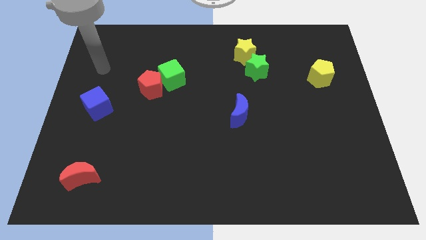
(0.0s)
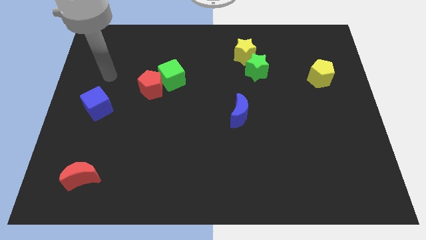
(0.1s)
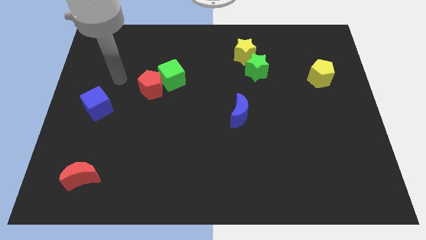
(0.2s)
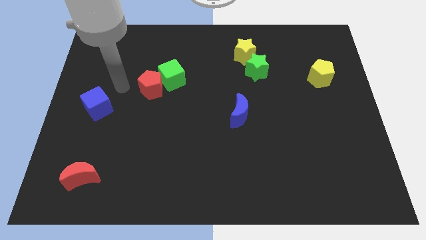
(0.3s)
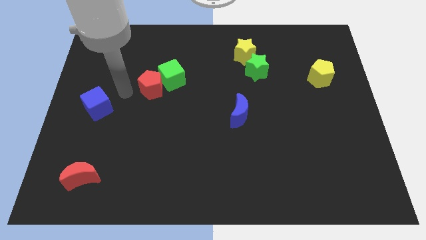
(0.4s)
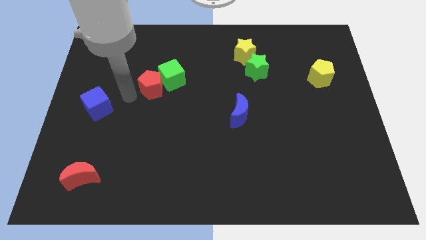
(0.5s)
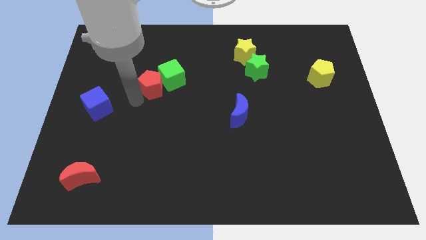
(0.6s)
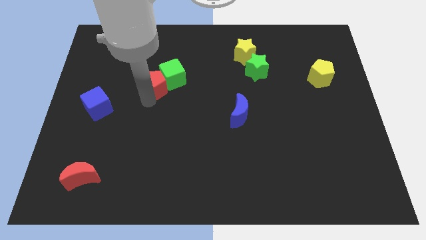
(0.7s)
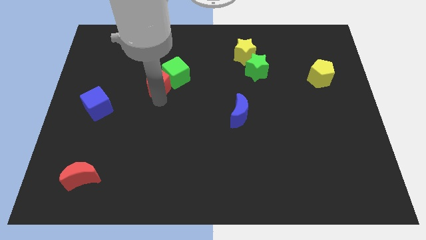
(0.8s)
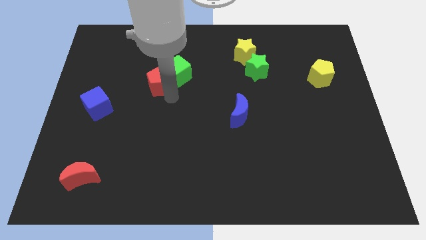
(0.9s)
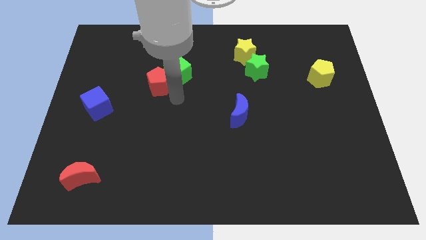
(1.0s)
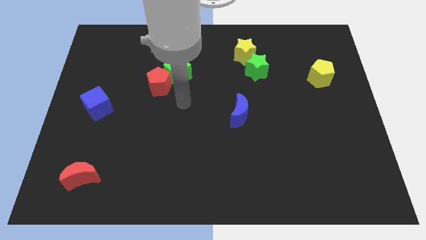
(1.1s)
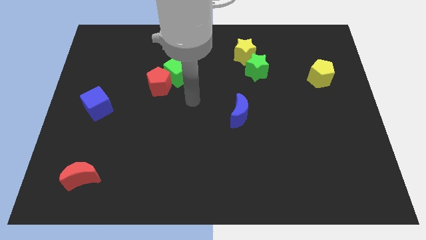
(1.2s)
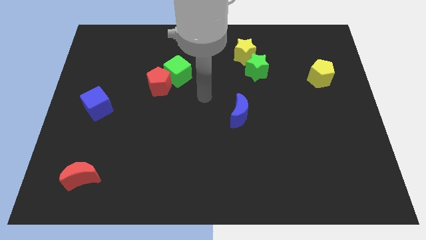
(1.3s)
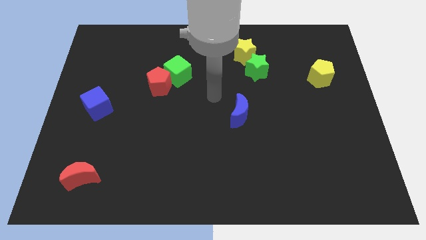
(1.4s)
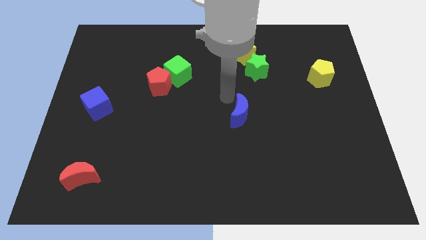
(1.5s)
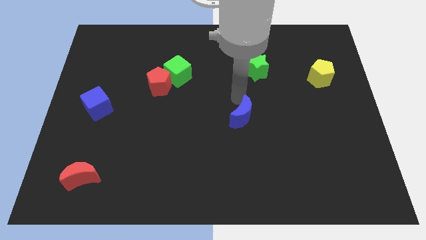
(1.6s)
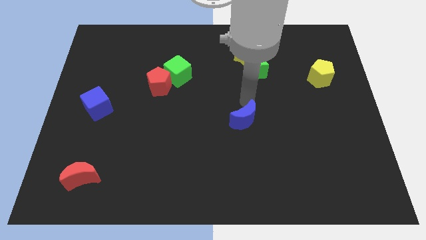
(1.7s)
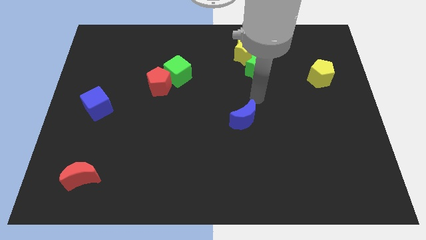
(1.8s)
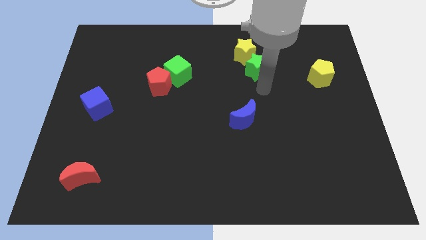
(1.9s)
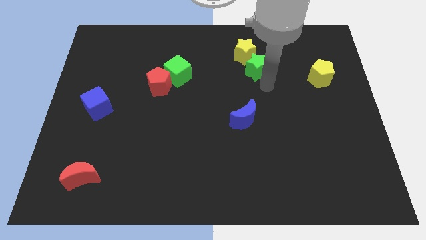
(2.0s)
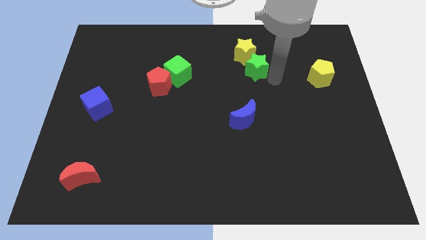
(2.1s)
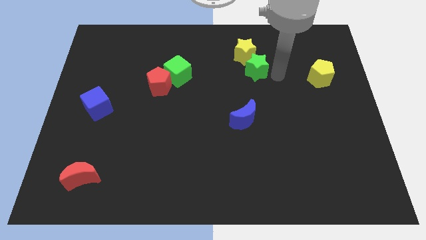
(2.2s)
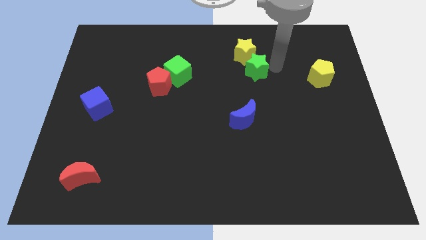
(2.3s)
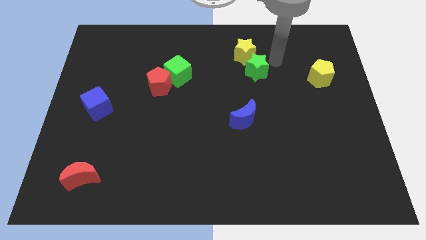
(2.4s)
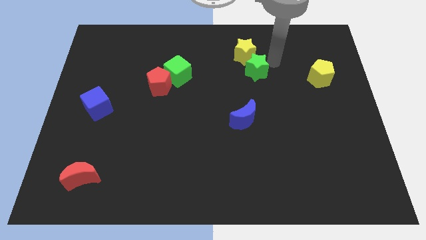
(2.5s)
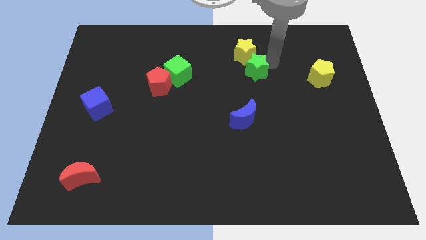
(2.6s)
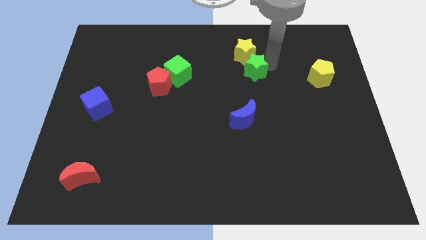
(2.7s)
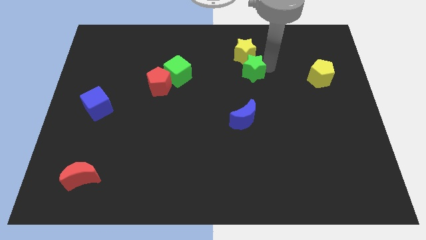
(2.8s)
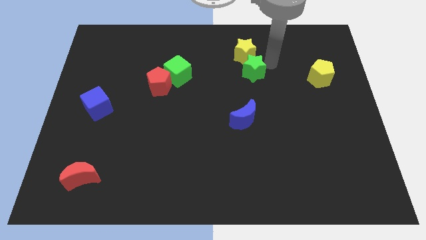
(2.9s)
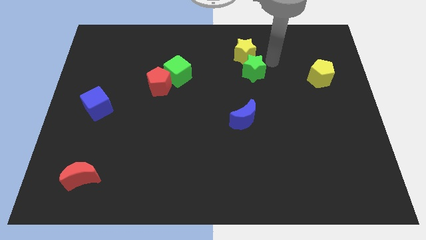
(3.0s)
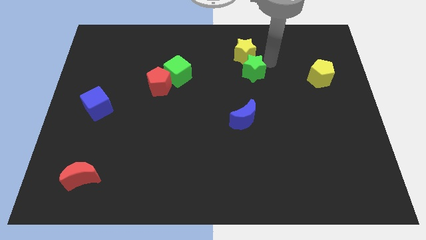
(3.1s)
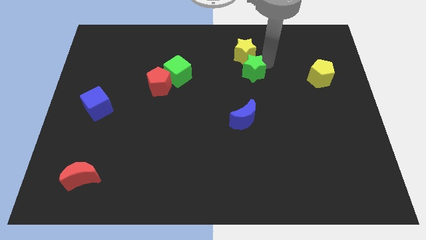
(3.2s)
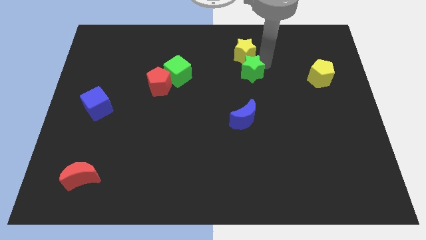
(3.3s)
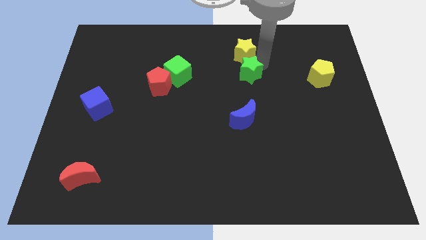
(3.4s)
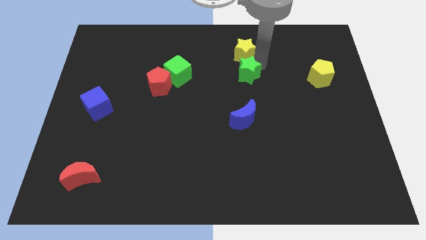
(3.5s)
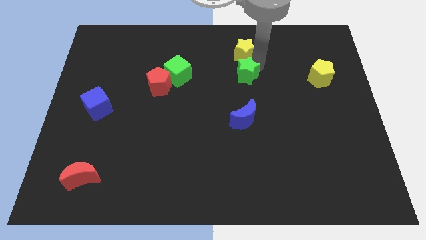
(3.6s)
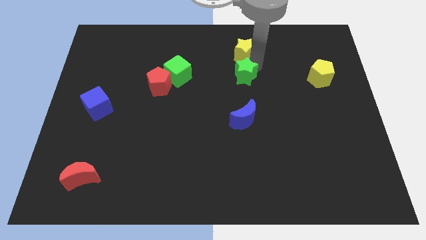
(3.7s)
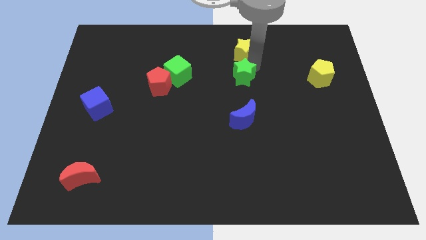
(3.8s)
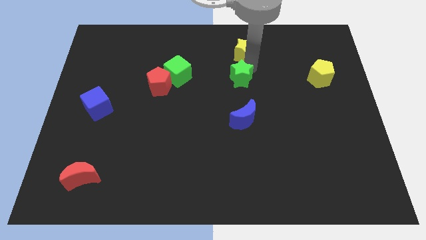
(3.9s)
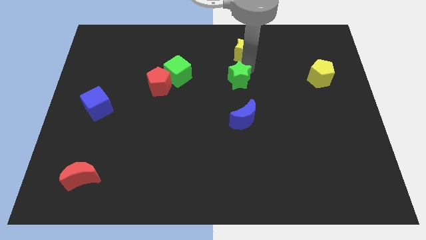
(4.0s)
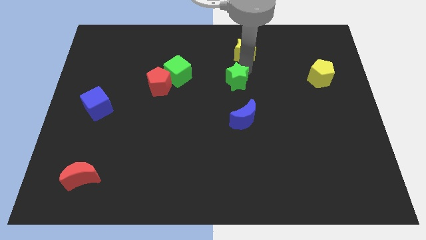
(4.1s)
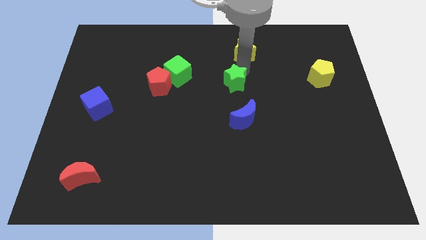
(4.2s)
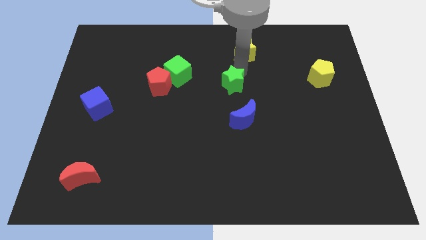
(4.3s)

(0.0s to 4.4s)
slide the green star diagonally down and to the left a little bit

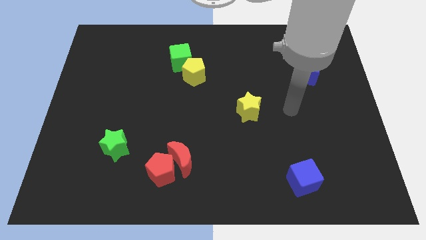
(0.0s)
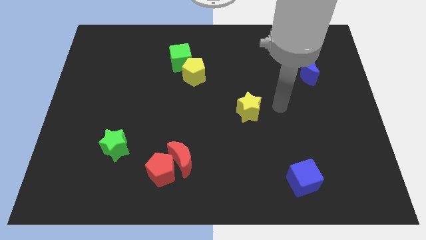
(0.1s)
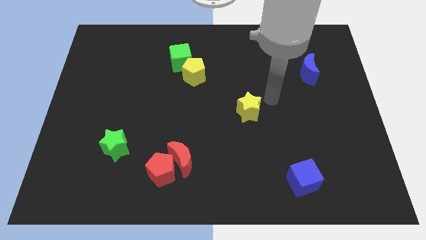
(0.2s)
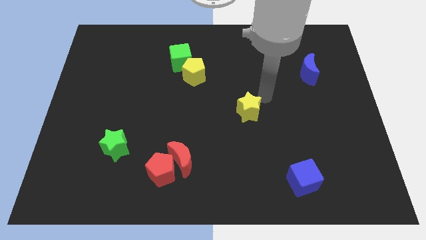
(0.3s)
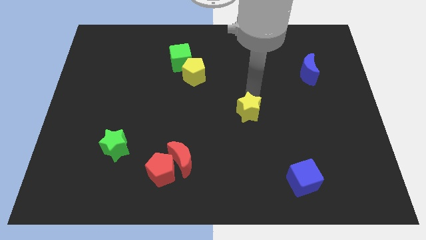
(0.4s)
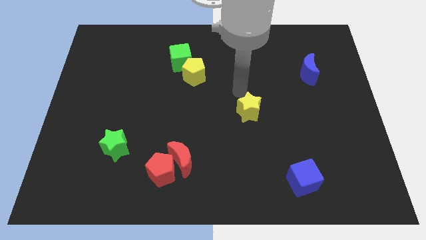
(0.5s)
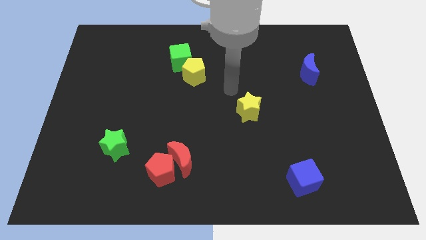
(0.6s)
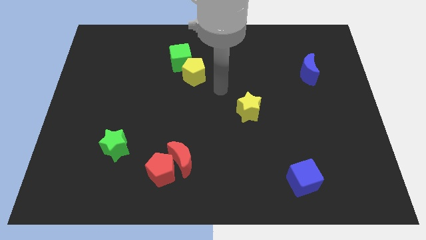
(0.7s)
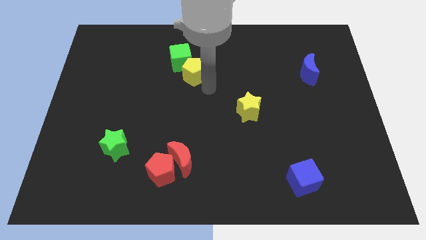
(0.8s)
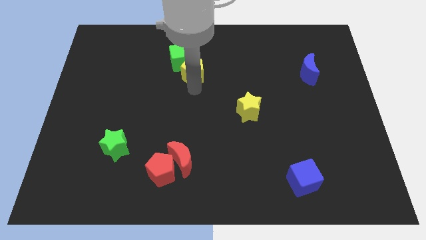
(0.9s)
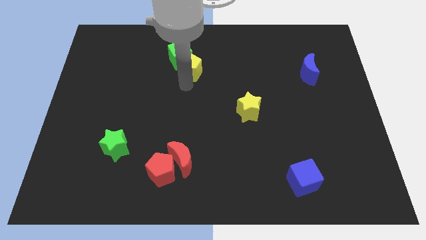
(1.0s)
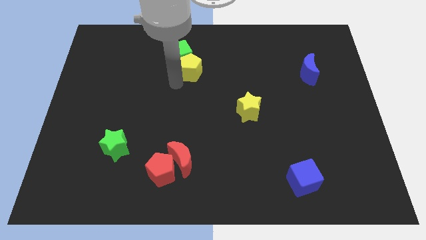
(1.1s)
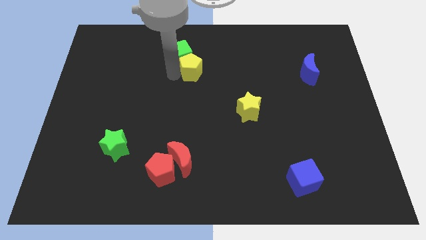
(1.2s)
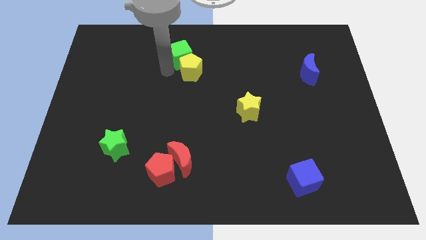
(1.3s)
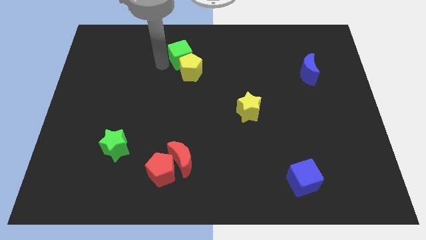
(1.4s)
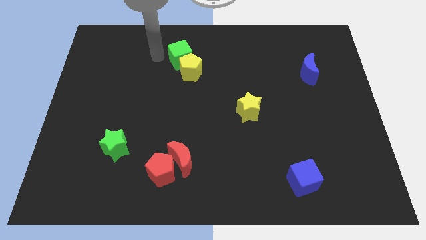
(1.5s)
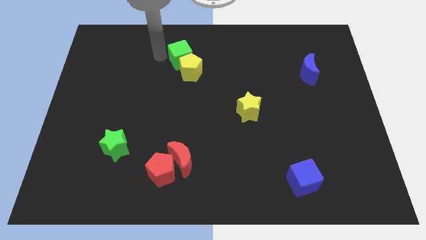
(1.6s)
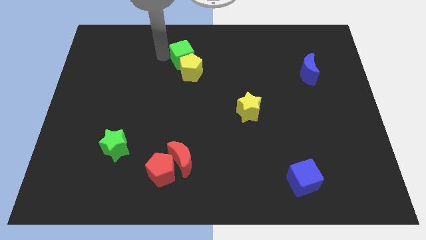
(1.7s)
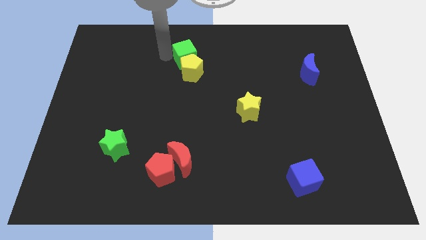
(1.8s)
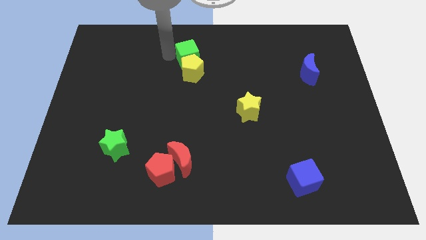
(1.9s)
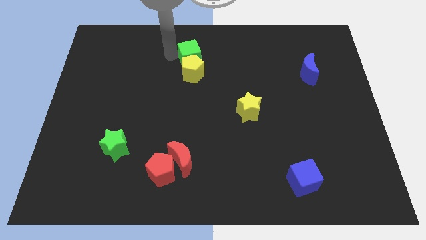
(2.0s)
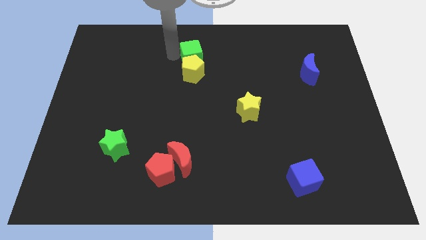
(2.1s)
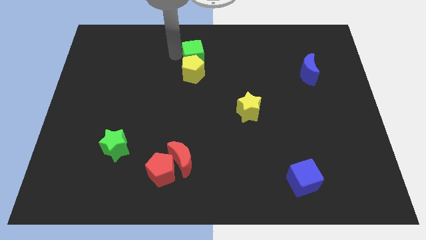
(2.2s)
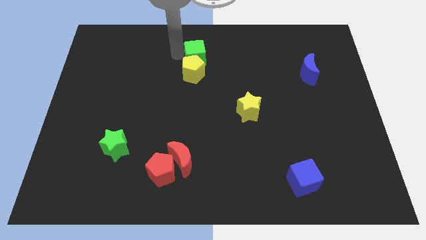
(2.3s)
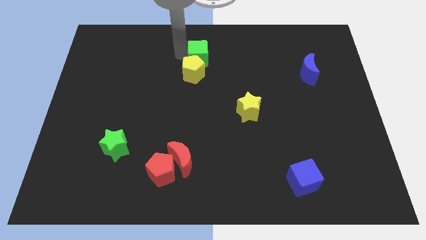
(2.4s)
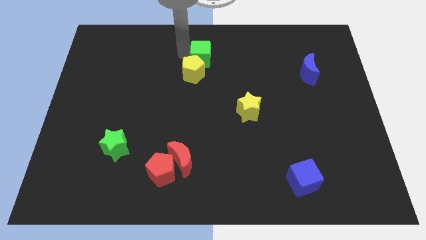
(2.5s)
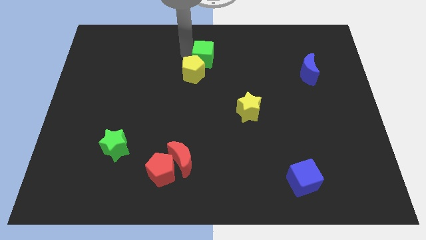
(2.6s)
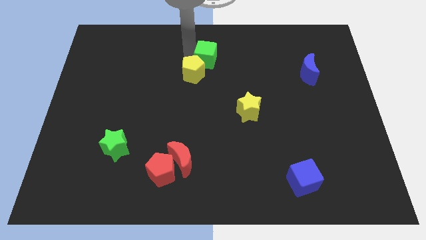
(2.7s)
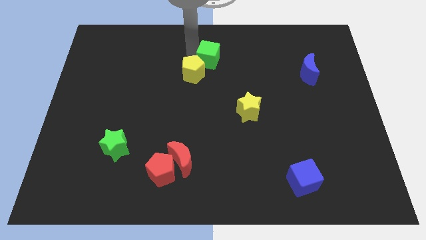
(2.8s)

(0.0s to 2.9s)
move the green cube right a little

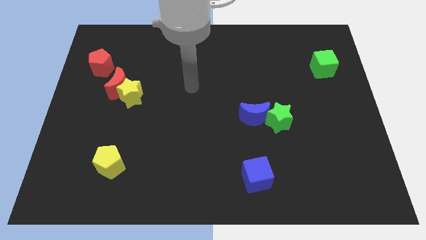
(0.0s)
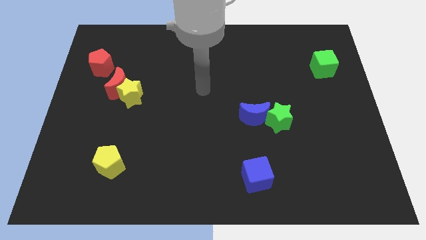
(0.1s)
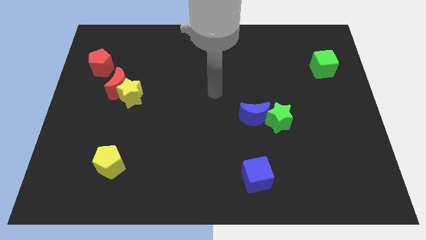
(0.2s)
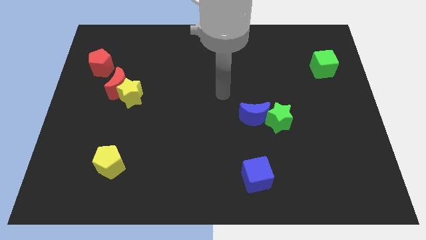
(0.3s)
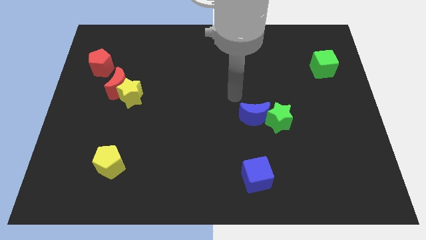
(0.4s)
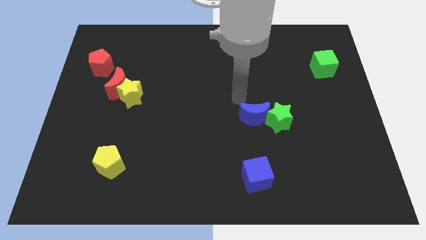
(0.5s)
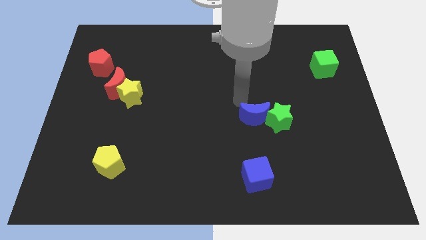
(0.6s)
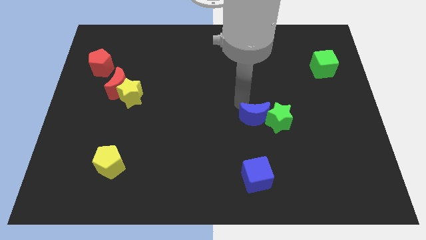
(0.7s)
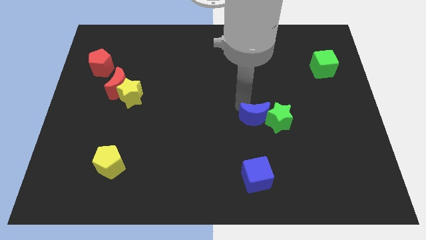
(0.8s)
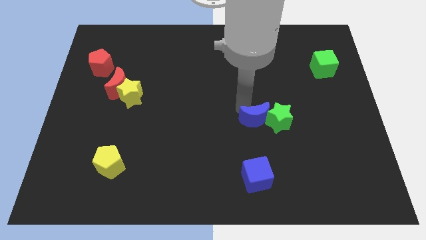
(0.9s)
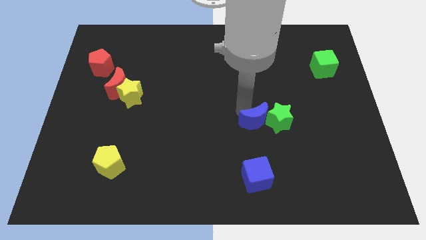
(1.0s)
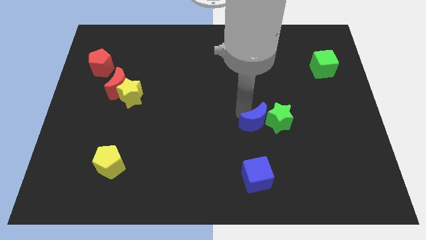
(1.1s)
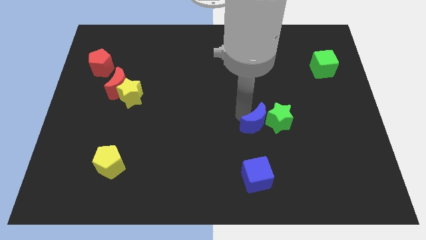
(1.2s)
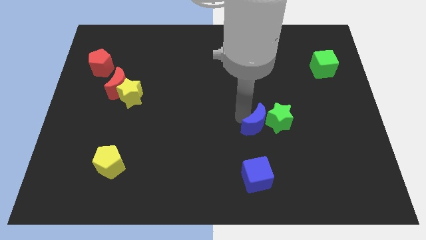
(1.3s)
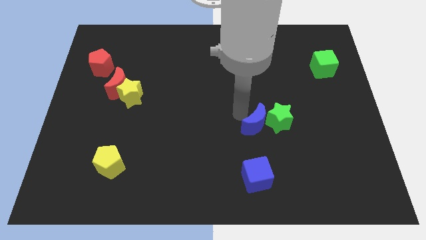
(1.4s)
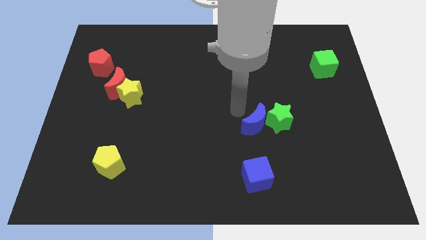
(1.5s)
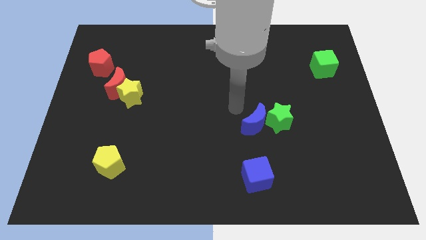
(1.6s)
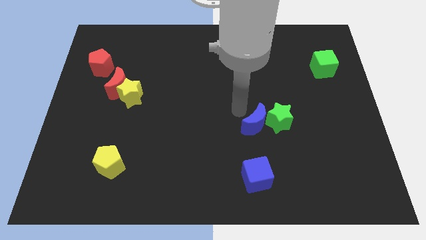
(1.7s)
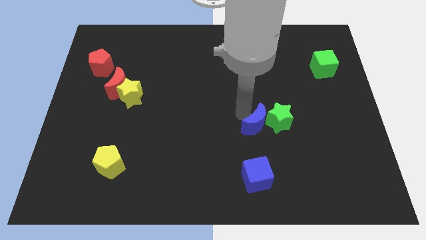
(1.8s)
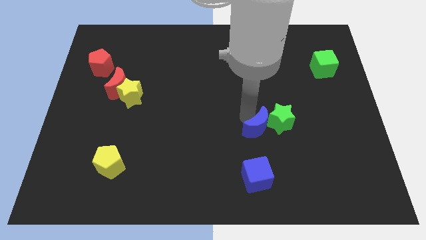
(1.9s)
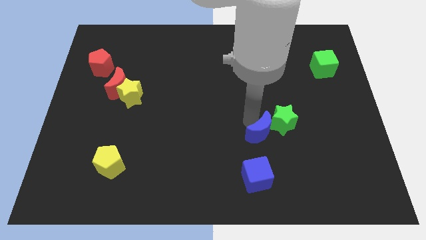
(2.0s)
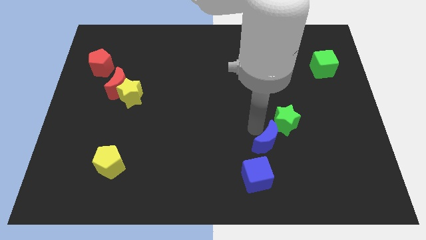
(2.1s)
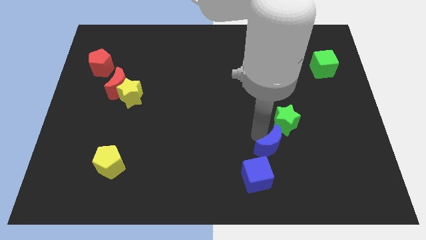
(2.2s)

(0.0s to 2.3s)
slide the blue moon a little bit down and right diagonally
